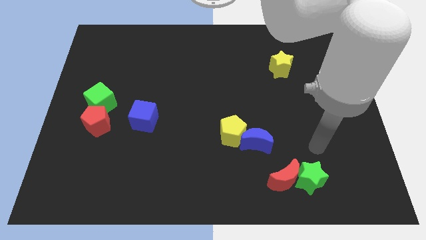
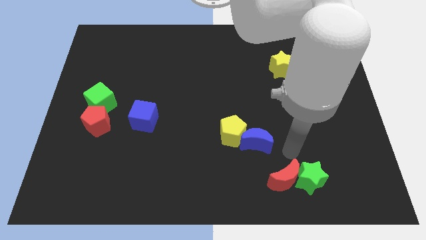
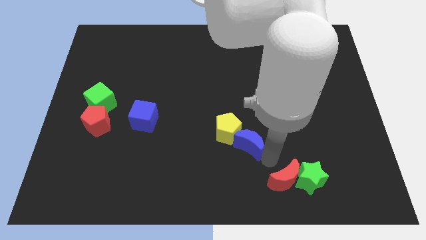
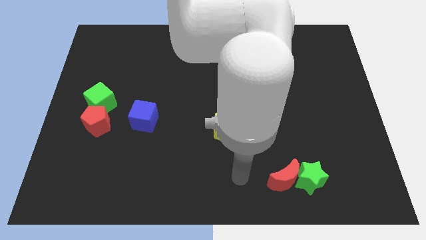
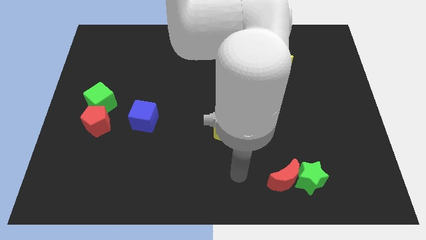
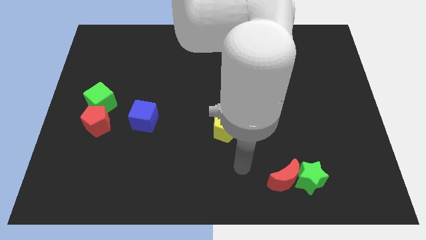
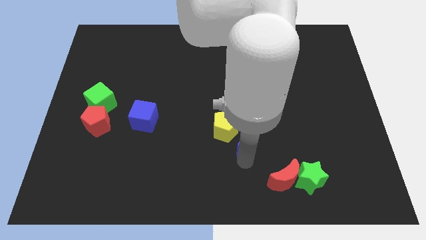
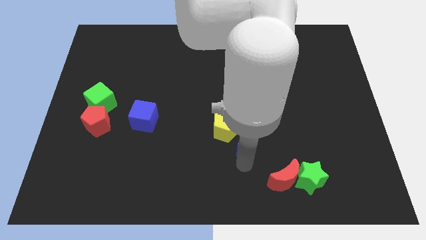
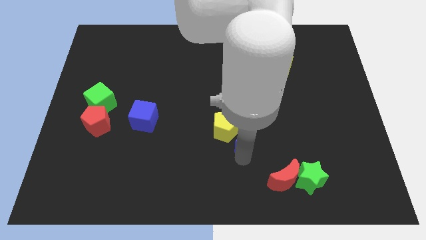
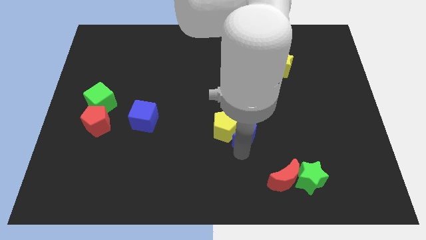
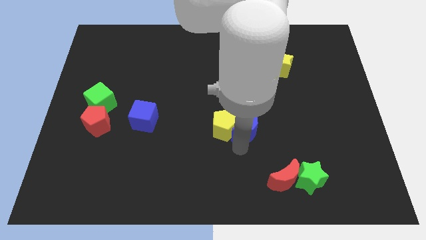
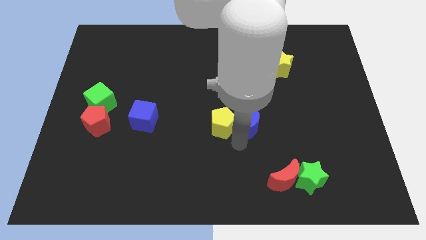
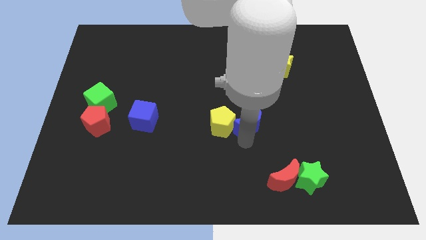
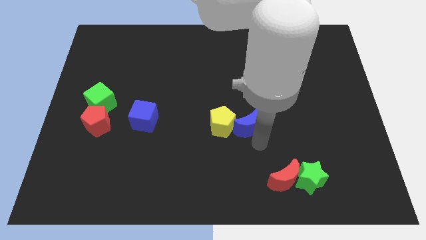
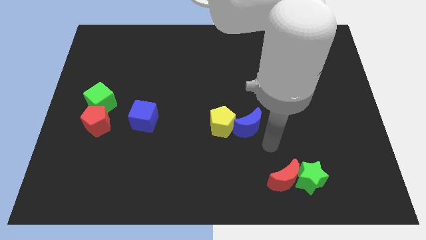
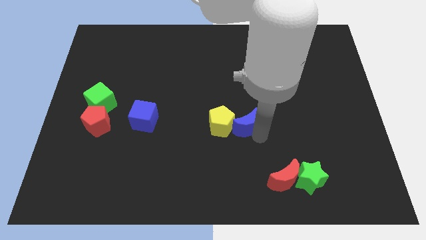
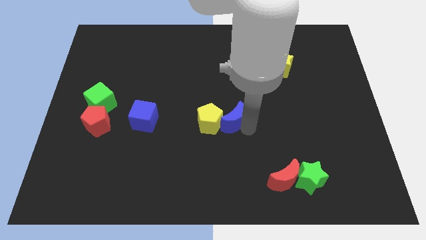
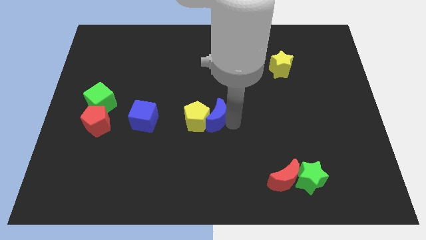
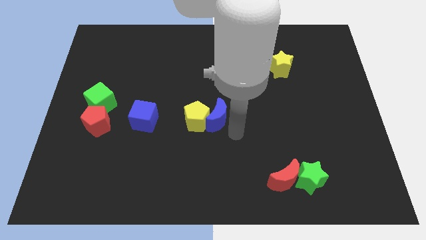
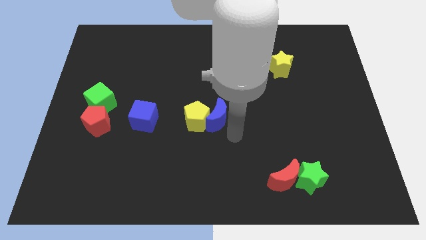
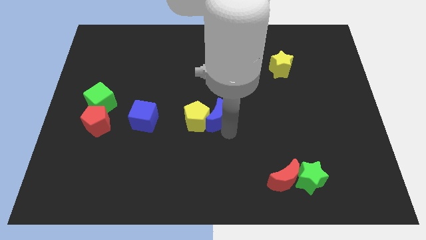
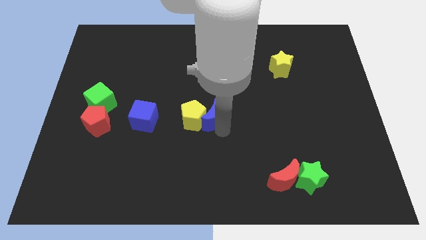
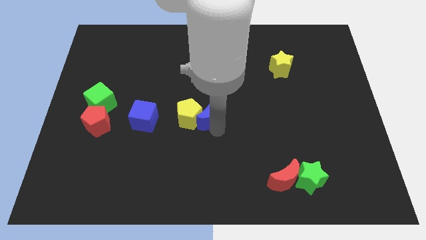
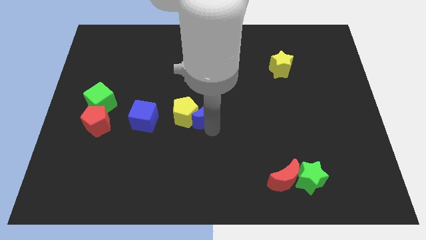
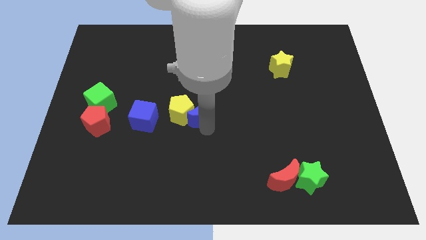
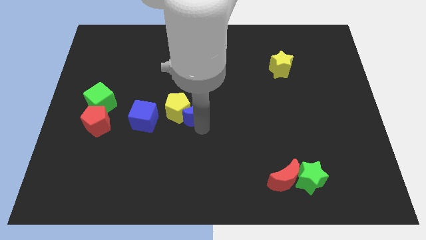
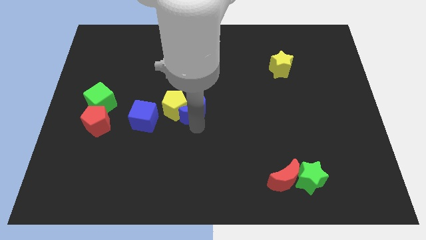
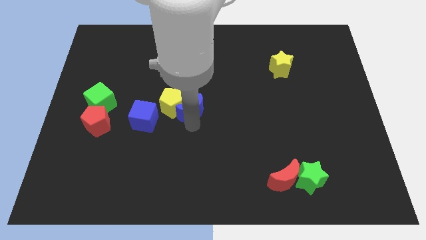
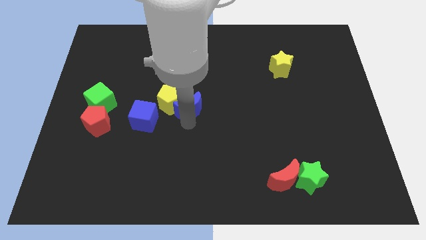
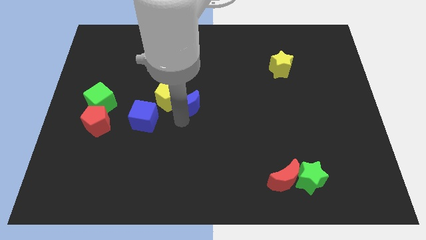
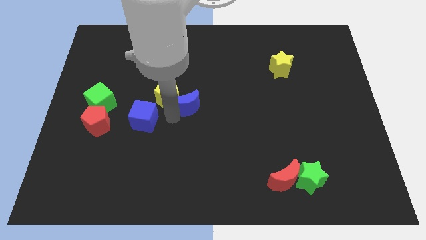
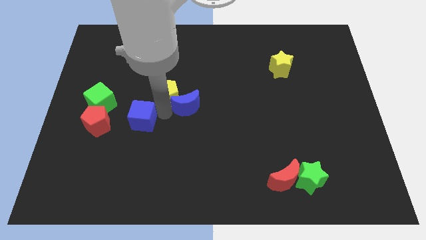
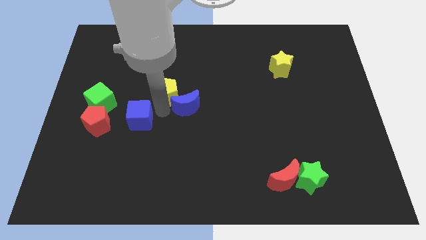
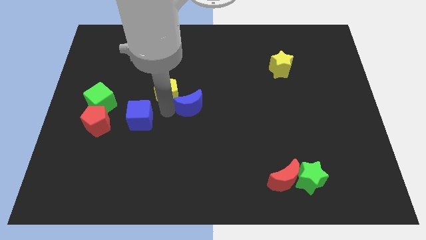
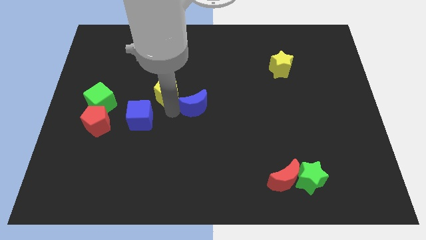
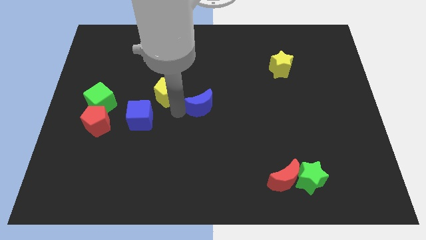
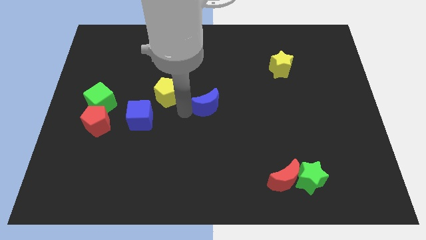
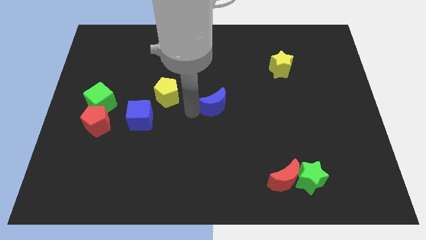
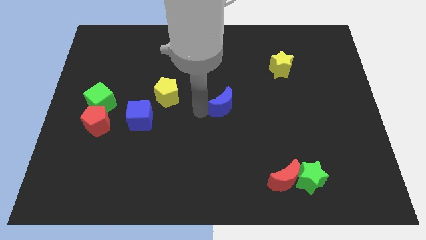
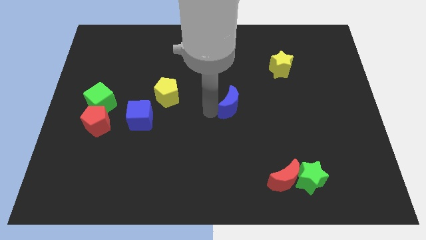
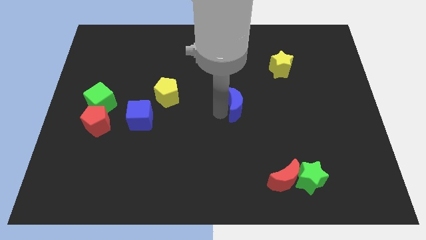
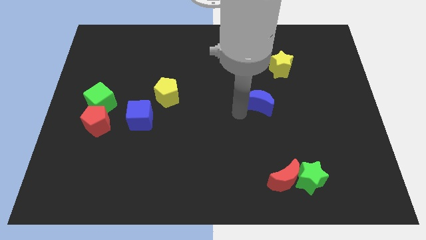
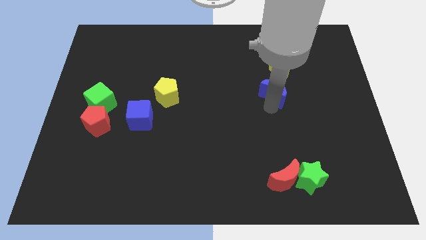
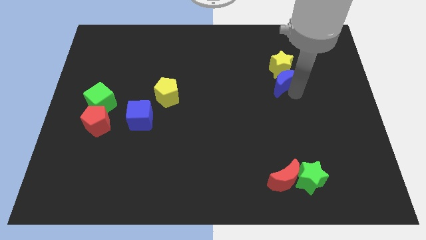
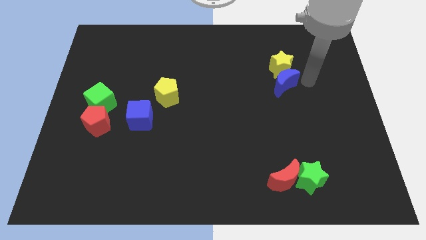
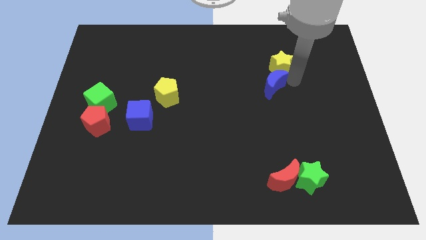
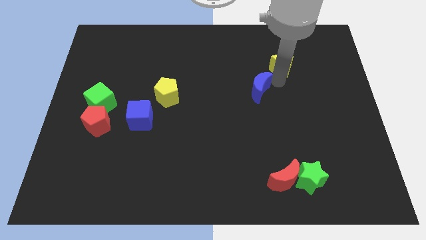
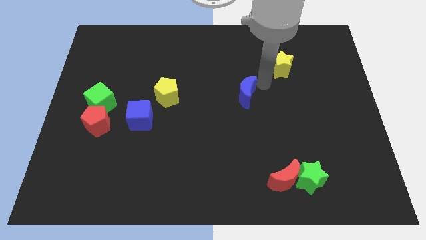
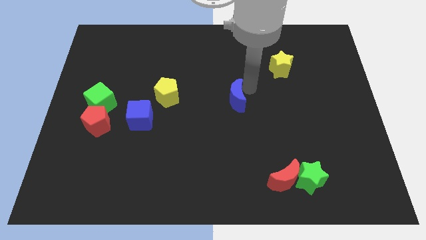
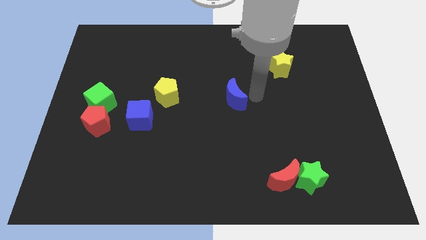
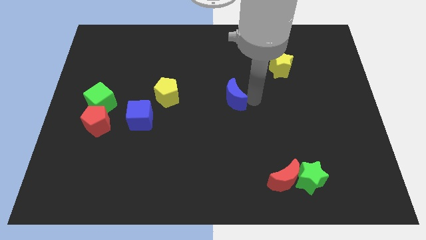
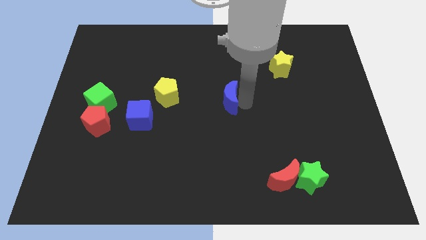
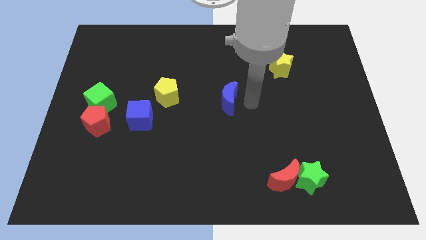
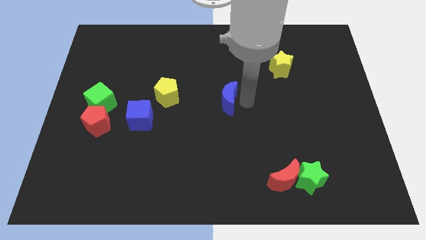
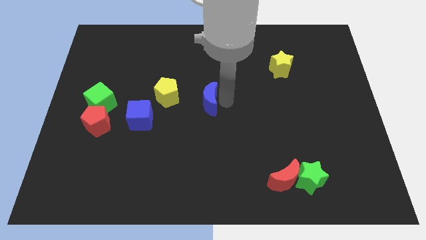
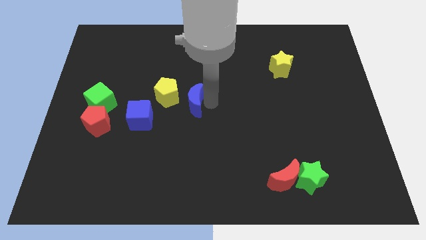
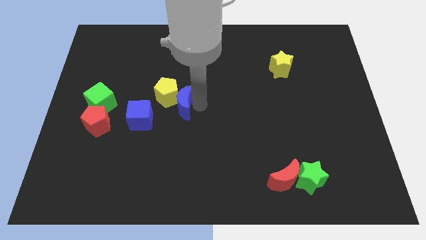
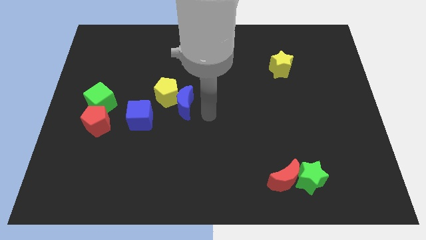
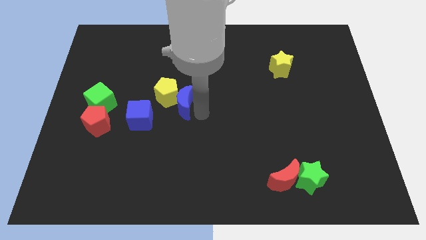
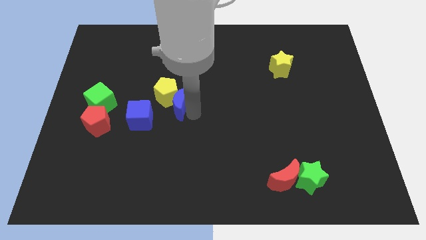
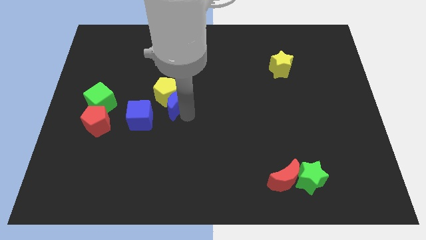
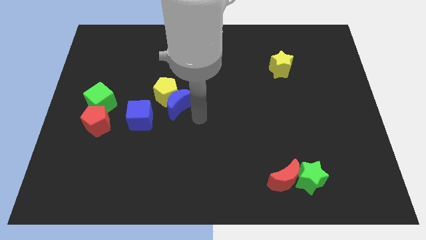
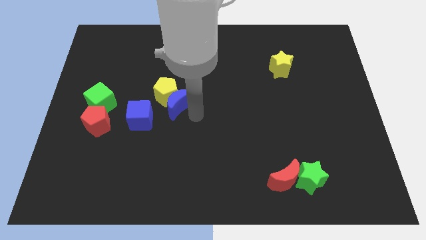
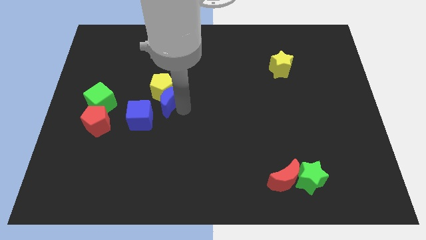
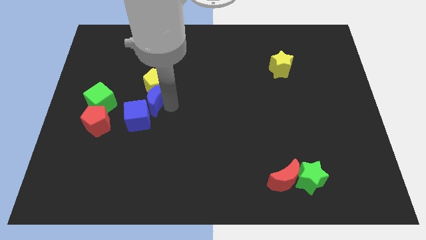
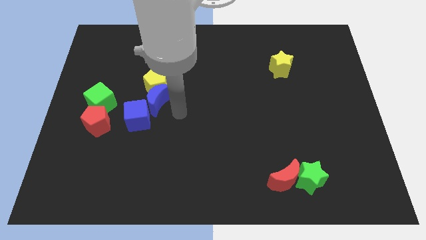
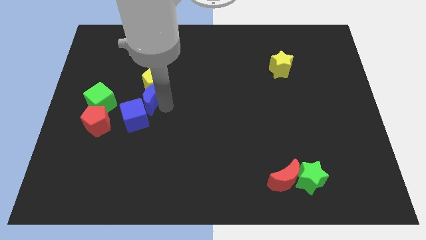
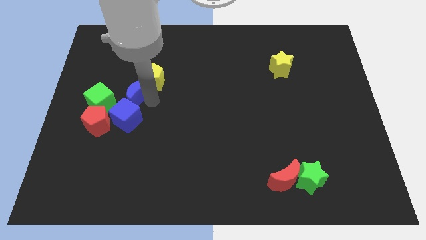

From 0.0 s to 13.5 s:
put the blue moon to the top right of the green cube
